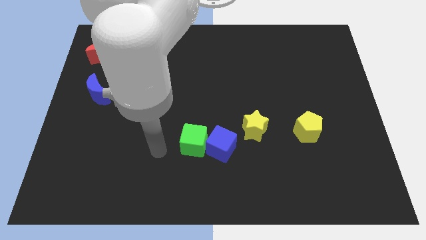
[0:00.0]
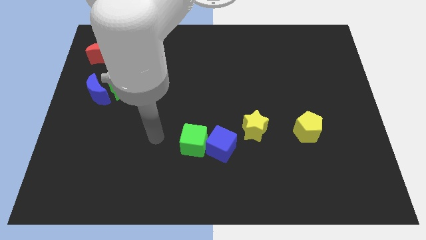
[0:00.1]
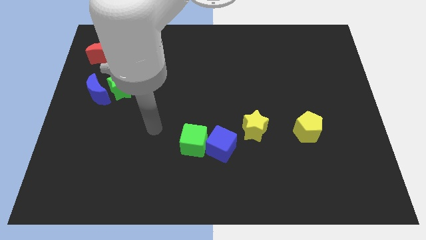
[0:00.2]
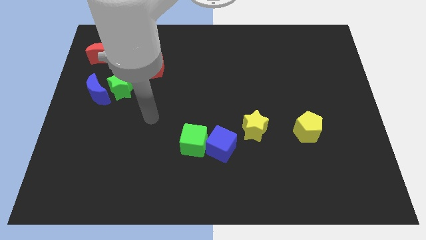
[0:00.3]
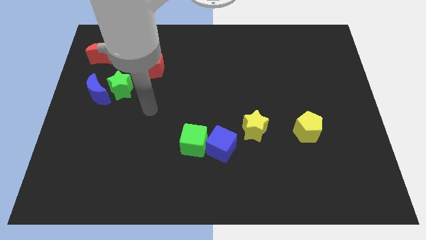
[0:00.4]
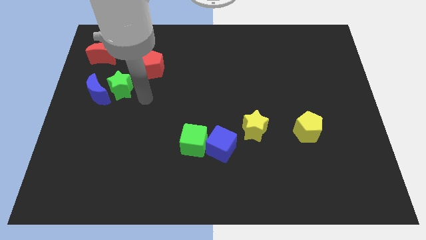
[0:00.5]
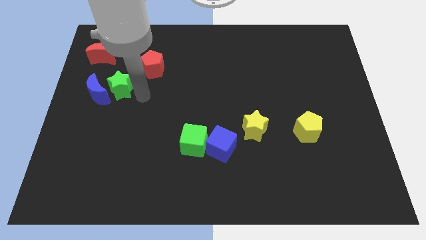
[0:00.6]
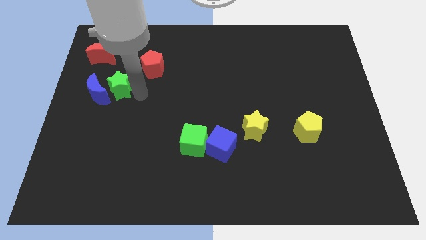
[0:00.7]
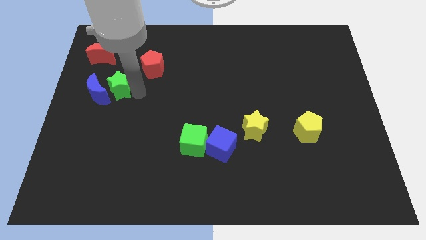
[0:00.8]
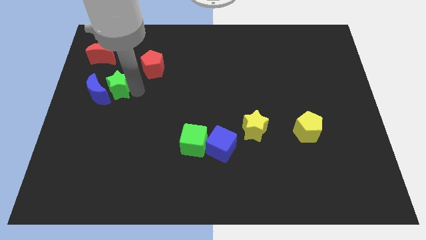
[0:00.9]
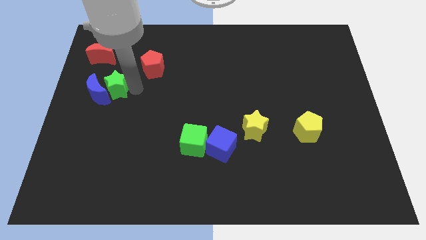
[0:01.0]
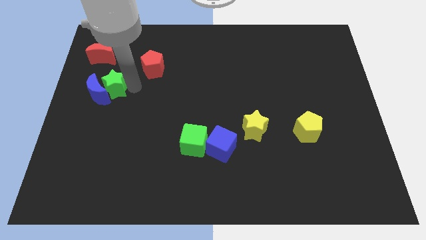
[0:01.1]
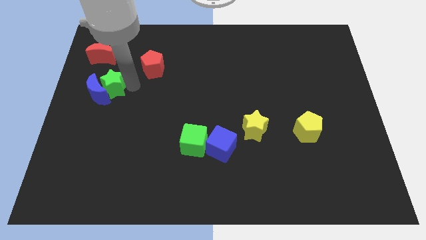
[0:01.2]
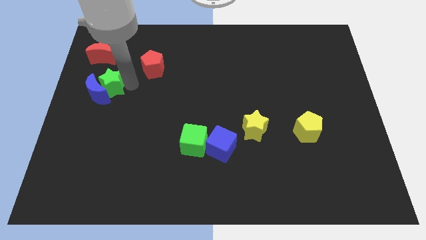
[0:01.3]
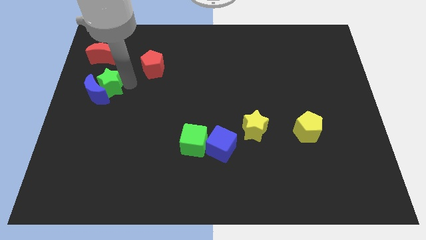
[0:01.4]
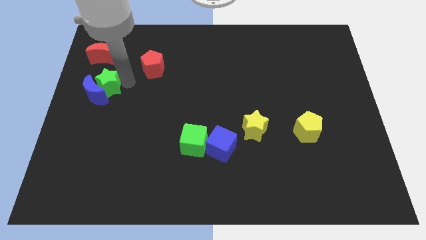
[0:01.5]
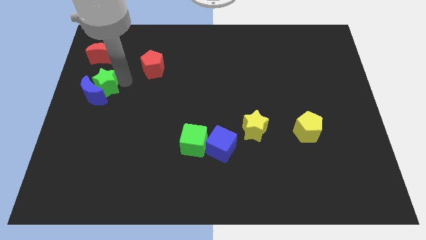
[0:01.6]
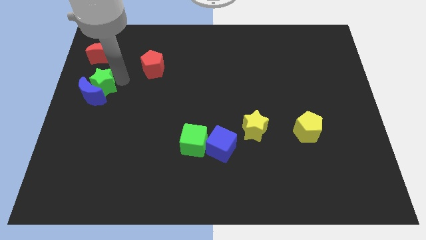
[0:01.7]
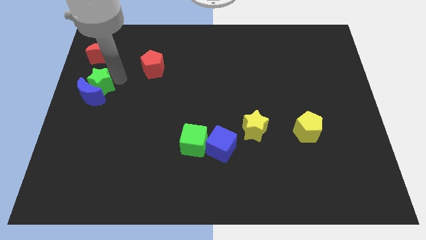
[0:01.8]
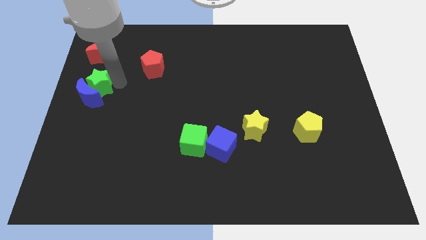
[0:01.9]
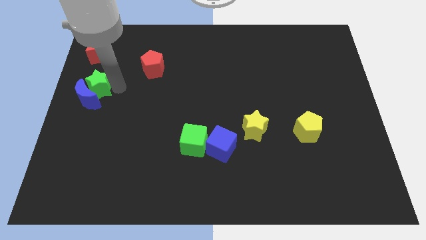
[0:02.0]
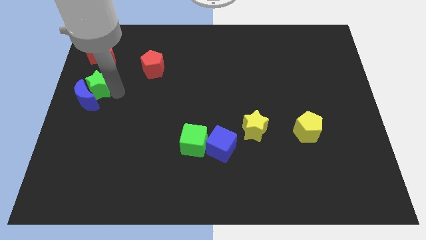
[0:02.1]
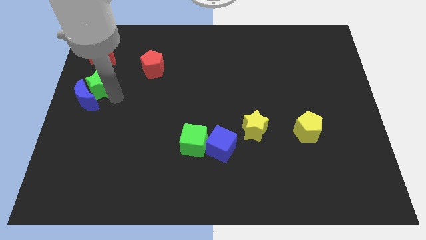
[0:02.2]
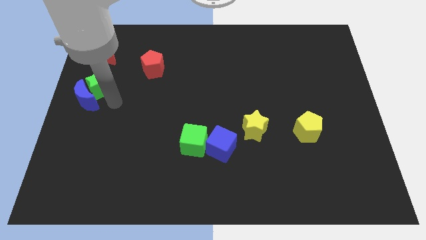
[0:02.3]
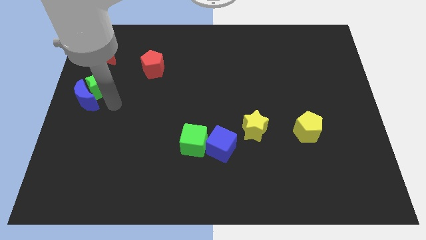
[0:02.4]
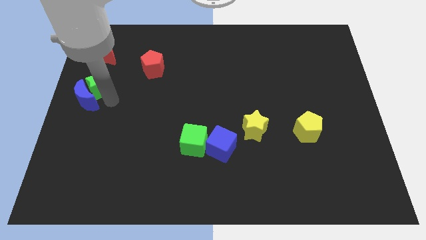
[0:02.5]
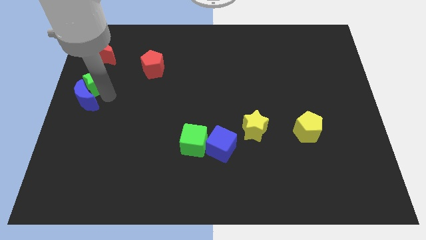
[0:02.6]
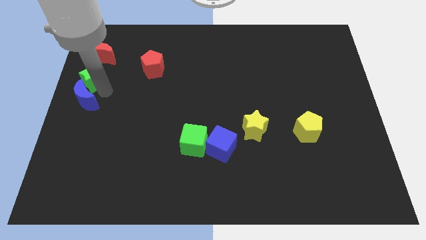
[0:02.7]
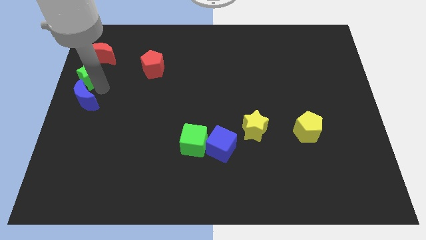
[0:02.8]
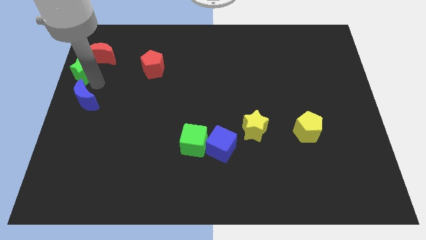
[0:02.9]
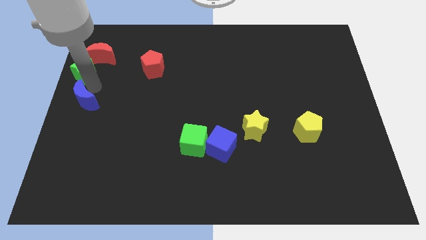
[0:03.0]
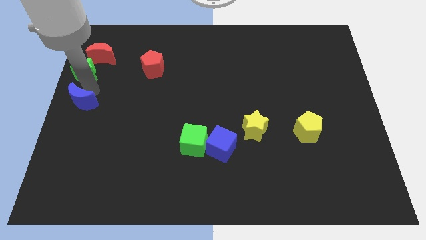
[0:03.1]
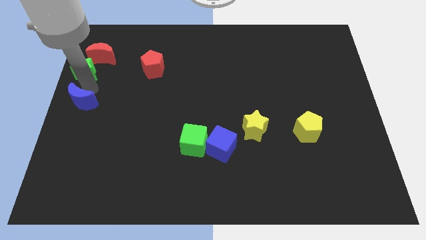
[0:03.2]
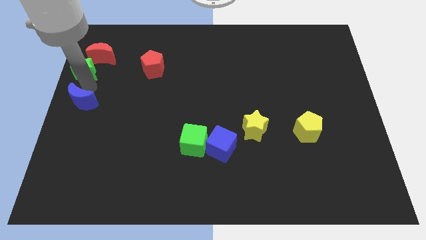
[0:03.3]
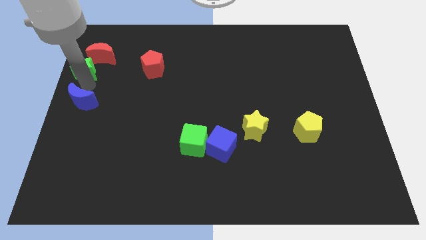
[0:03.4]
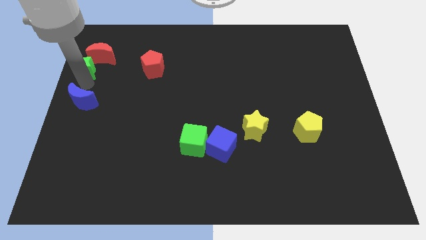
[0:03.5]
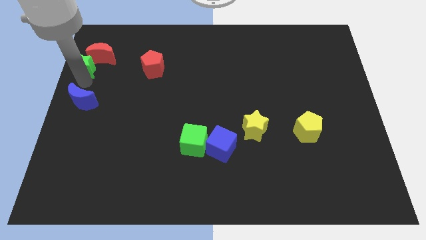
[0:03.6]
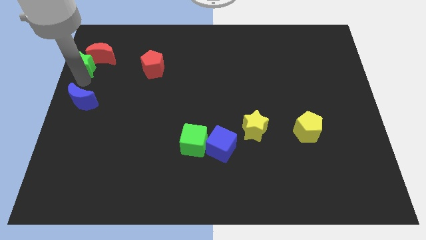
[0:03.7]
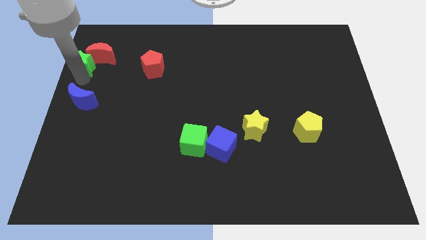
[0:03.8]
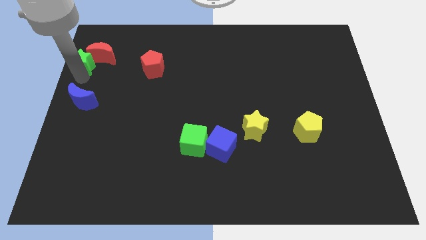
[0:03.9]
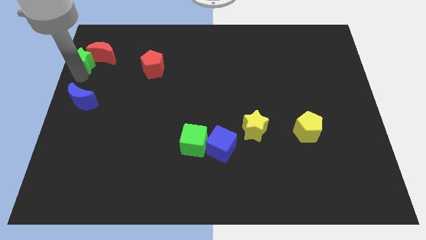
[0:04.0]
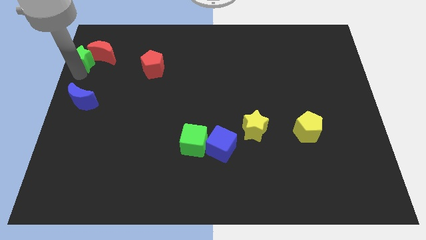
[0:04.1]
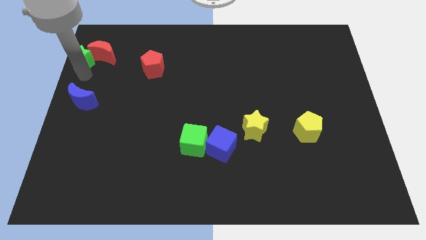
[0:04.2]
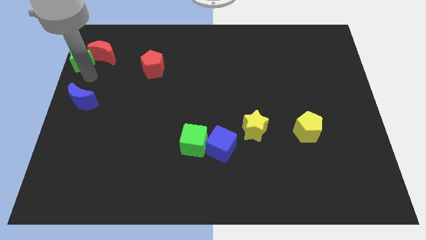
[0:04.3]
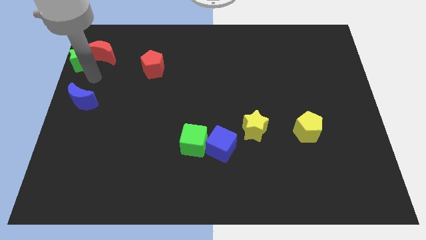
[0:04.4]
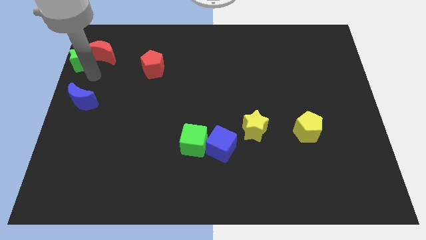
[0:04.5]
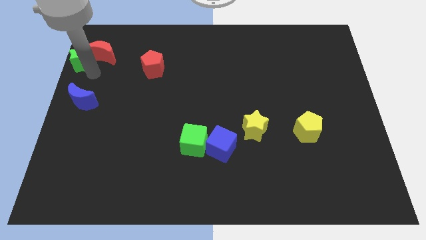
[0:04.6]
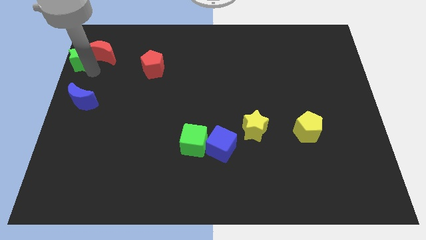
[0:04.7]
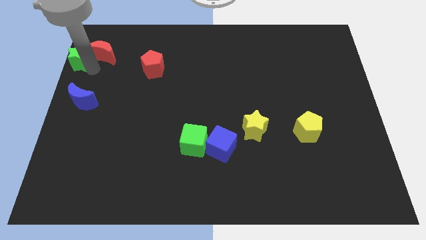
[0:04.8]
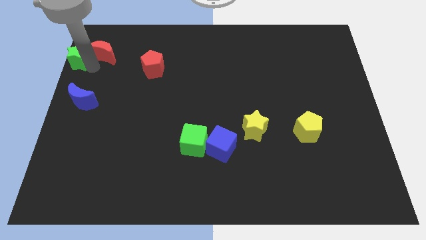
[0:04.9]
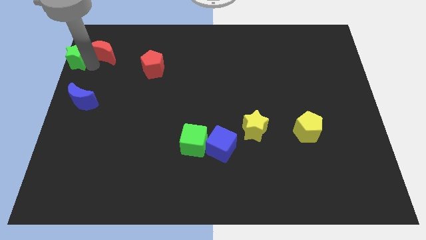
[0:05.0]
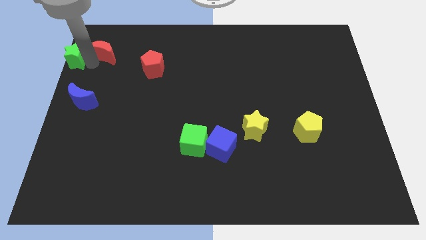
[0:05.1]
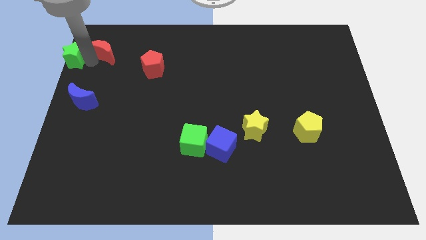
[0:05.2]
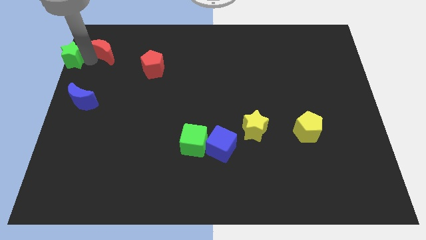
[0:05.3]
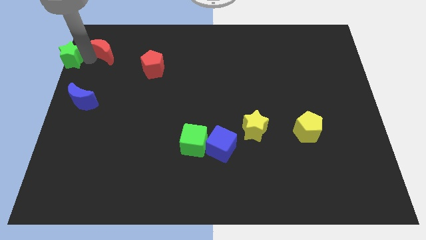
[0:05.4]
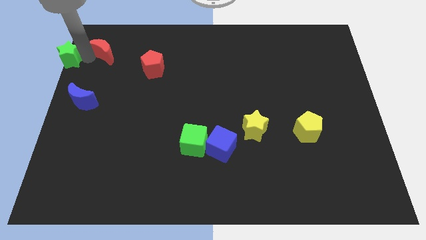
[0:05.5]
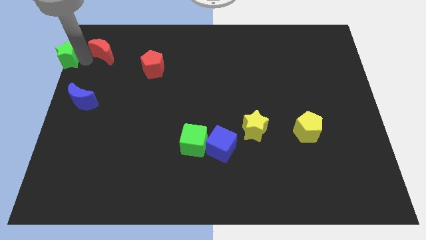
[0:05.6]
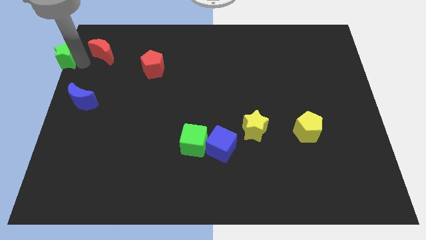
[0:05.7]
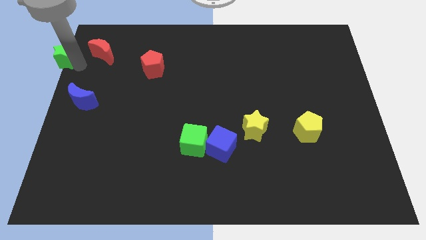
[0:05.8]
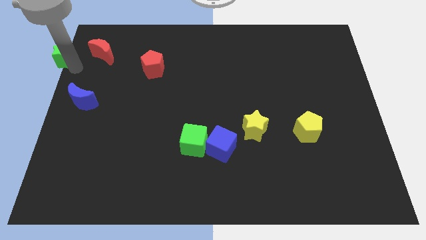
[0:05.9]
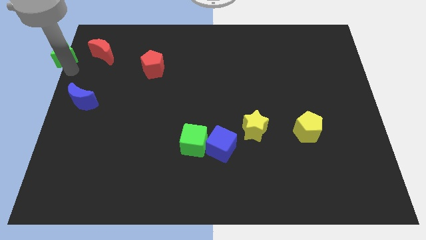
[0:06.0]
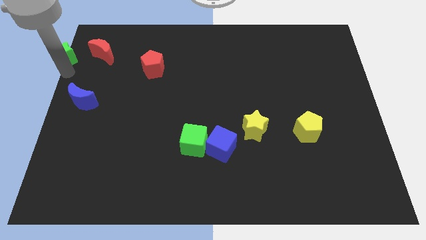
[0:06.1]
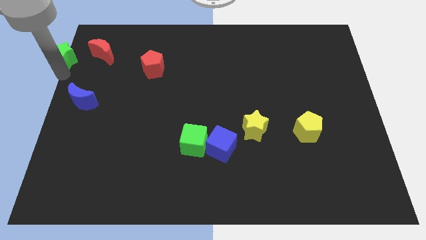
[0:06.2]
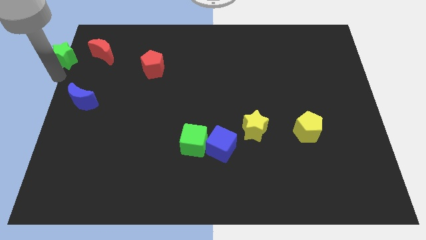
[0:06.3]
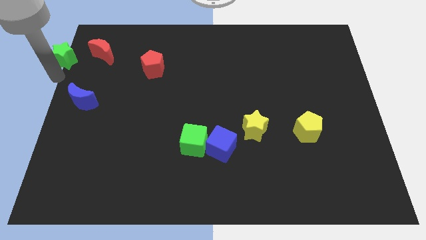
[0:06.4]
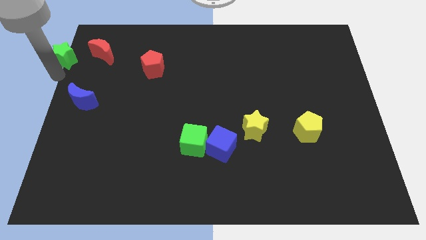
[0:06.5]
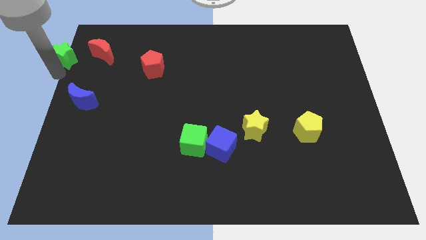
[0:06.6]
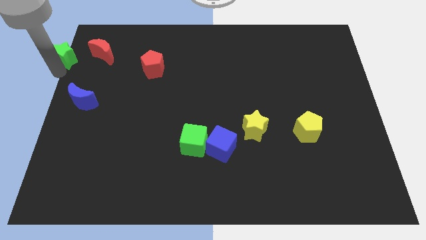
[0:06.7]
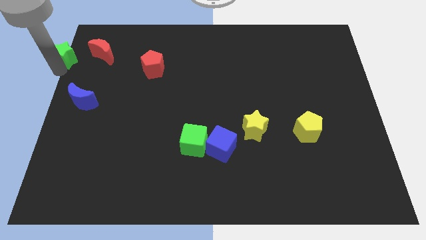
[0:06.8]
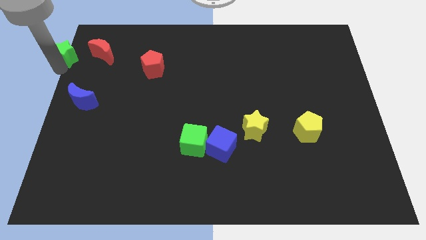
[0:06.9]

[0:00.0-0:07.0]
move the green star to the top left
